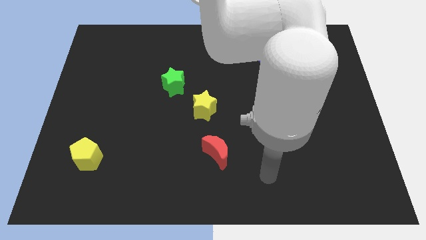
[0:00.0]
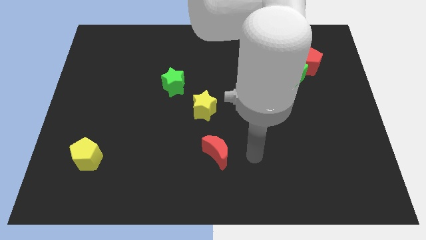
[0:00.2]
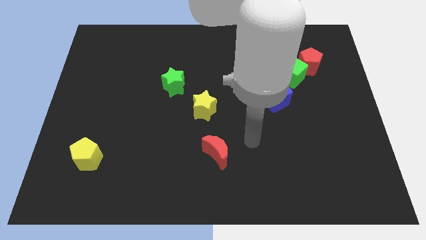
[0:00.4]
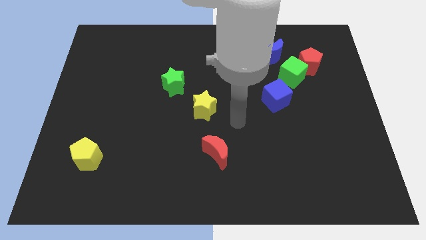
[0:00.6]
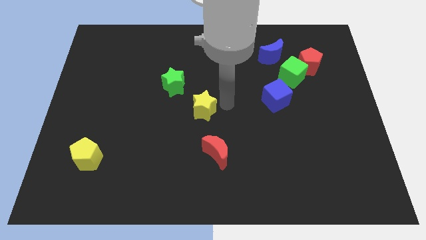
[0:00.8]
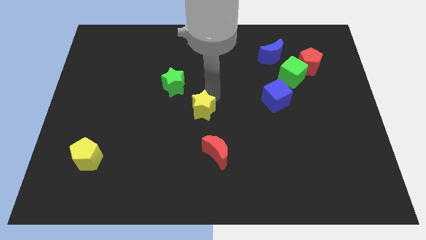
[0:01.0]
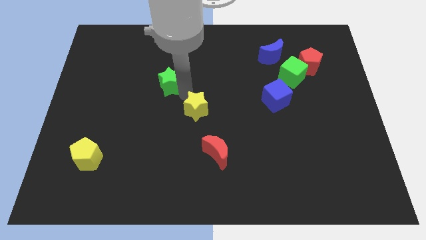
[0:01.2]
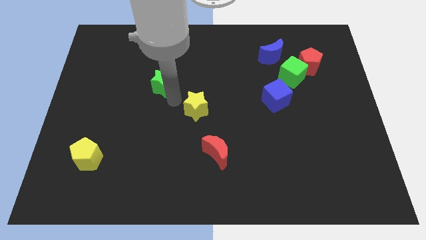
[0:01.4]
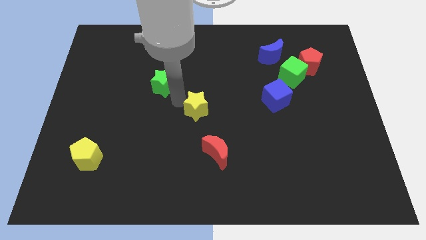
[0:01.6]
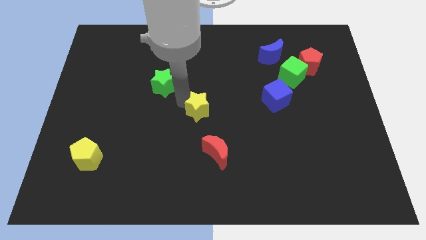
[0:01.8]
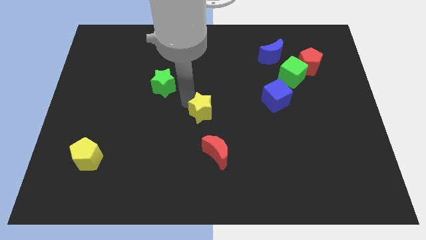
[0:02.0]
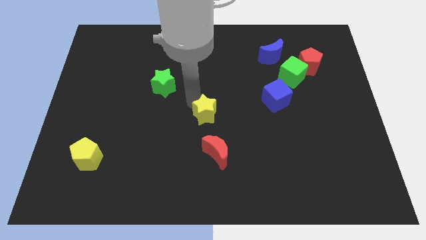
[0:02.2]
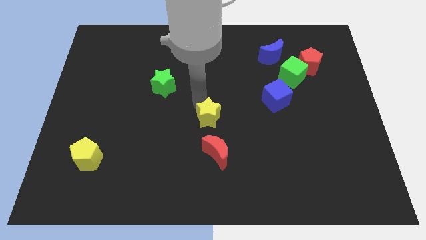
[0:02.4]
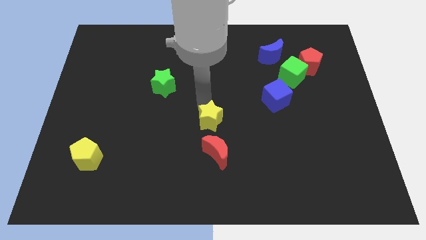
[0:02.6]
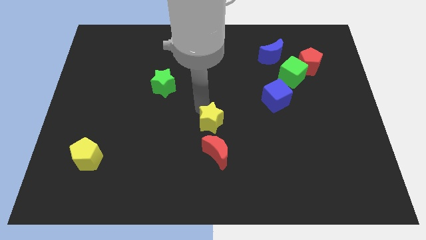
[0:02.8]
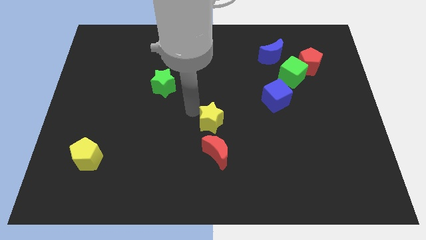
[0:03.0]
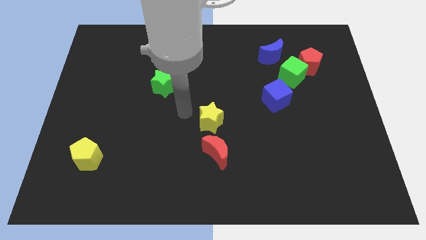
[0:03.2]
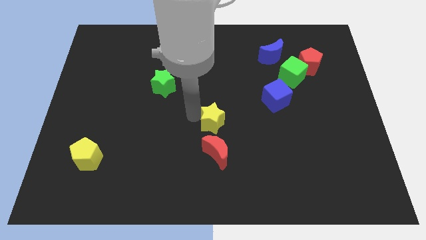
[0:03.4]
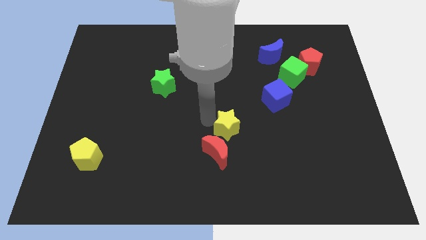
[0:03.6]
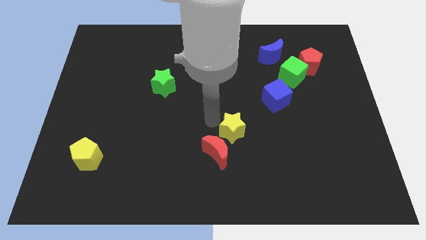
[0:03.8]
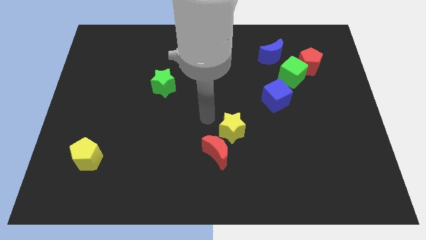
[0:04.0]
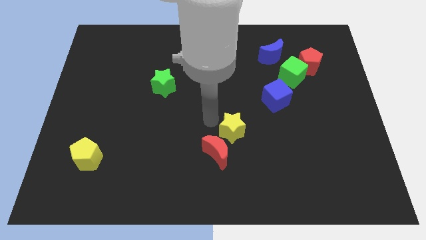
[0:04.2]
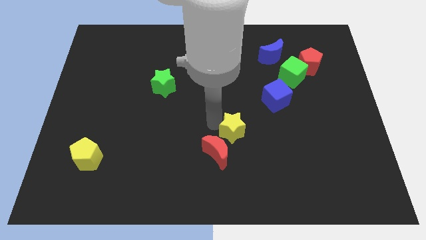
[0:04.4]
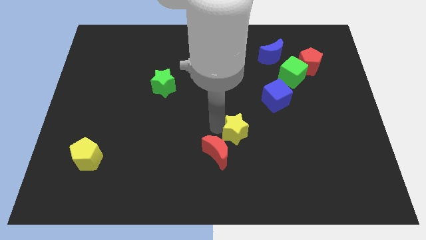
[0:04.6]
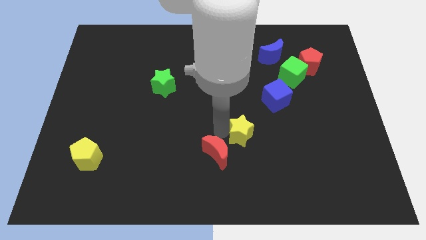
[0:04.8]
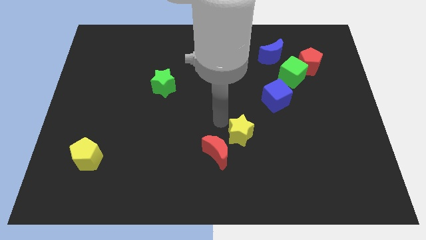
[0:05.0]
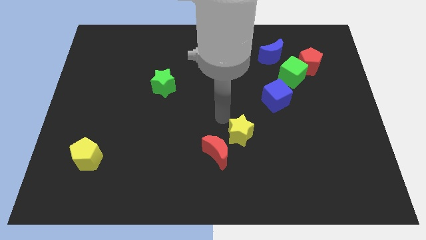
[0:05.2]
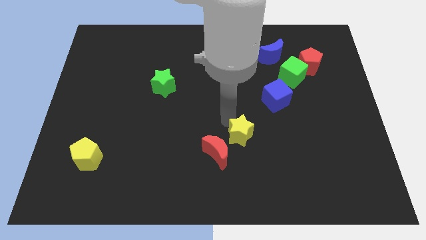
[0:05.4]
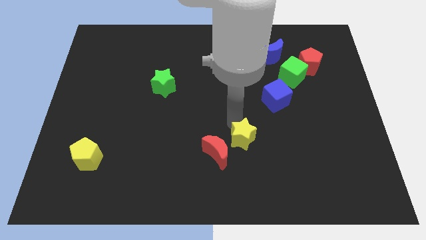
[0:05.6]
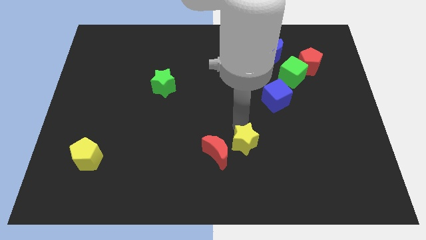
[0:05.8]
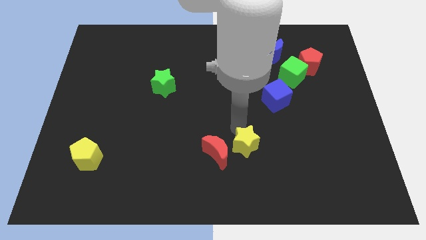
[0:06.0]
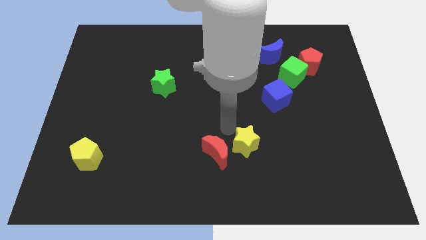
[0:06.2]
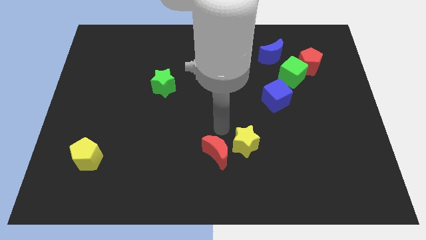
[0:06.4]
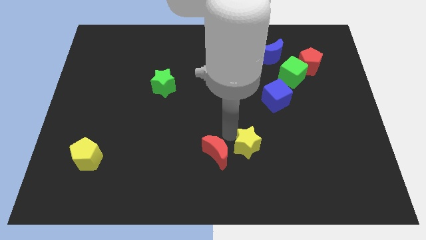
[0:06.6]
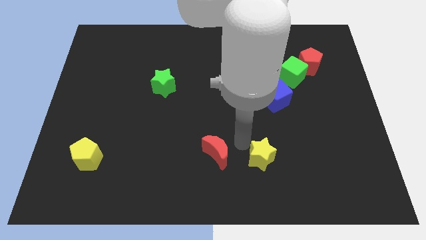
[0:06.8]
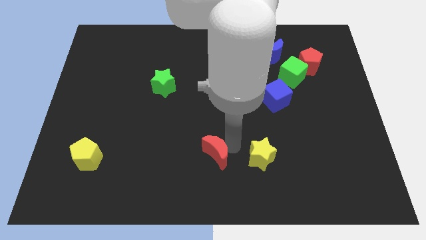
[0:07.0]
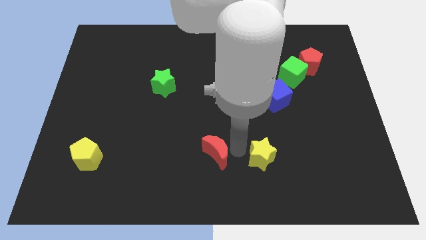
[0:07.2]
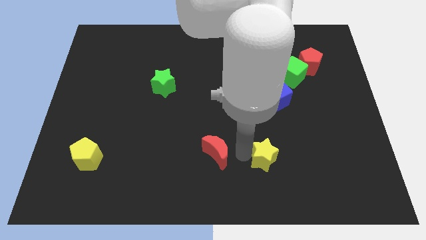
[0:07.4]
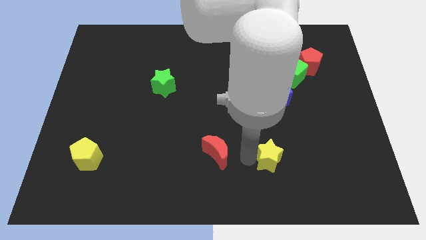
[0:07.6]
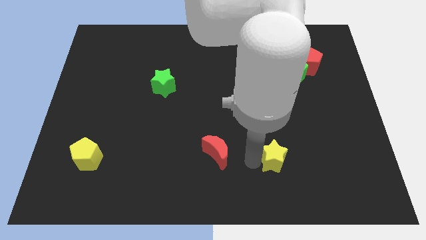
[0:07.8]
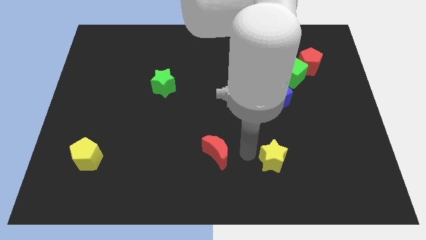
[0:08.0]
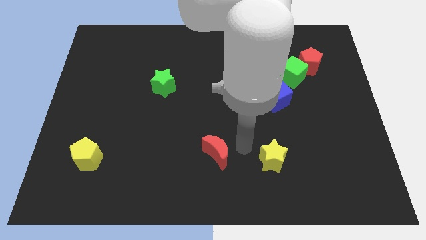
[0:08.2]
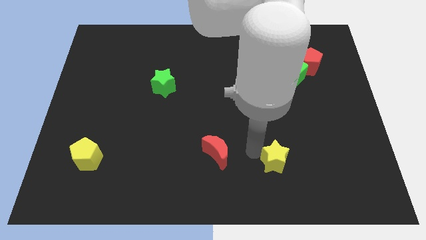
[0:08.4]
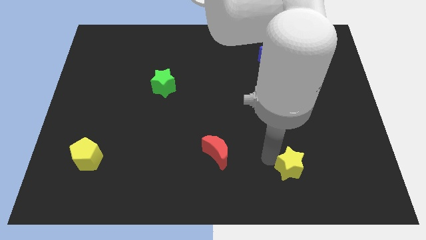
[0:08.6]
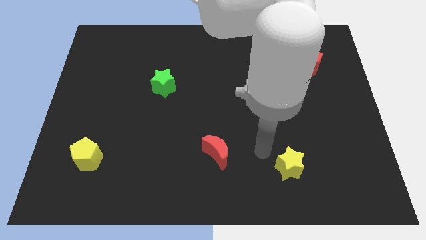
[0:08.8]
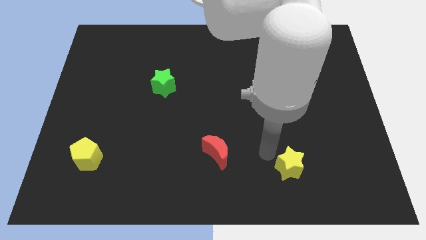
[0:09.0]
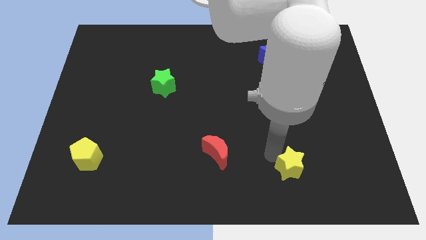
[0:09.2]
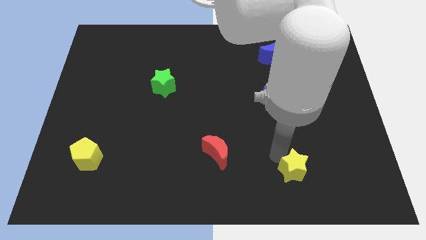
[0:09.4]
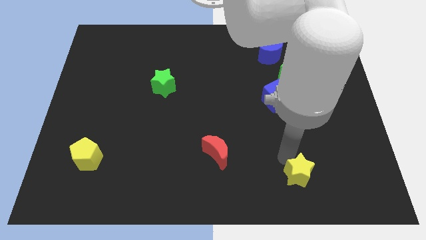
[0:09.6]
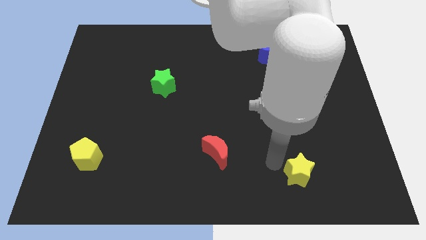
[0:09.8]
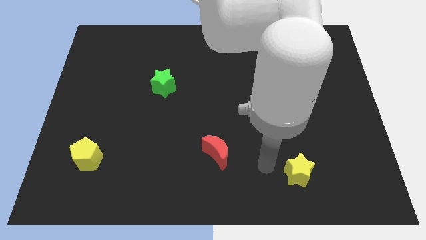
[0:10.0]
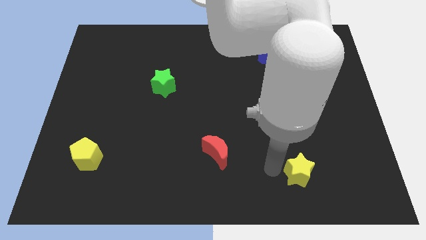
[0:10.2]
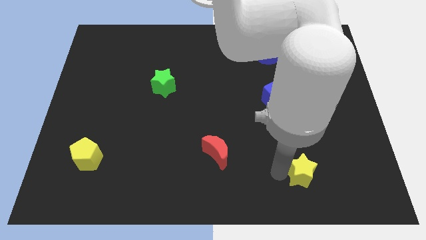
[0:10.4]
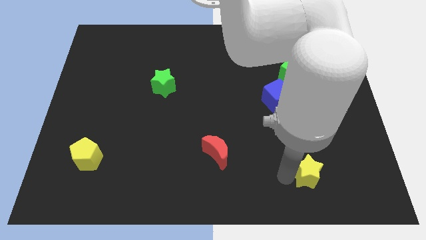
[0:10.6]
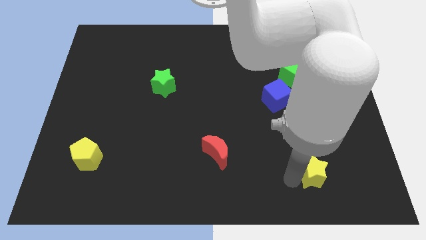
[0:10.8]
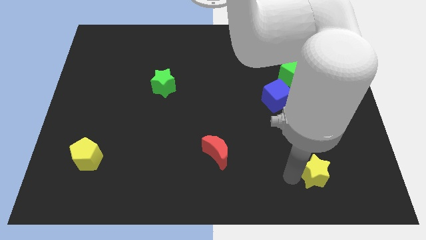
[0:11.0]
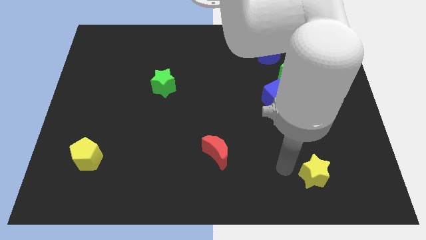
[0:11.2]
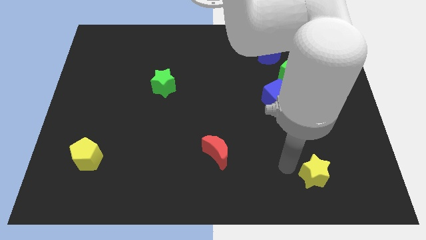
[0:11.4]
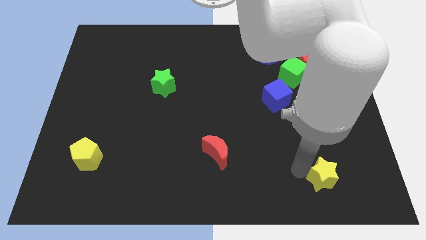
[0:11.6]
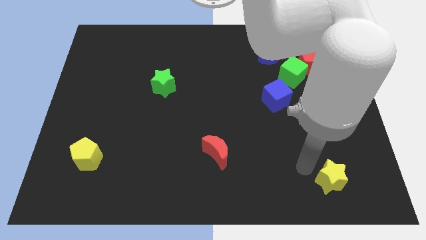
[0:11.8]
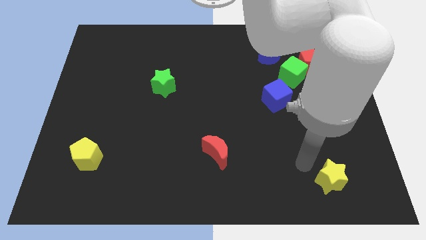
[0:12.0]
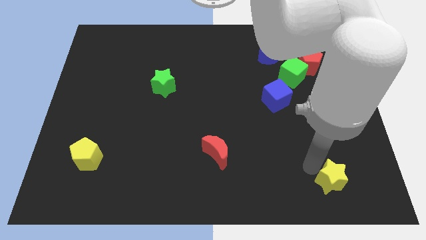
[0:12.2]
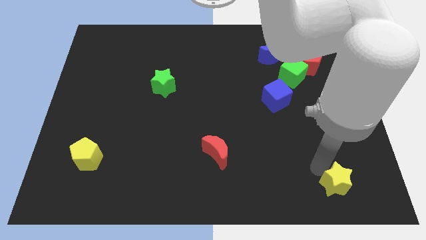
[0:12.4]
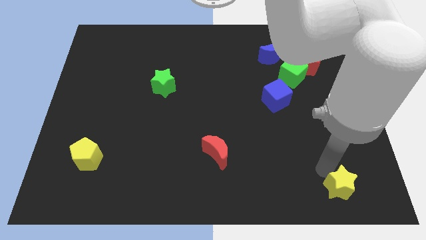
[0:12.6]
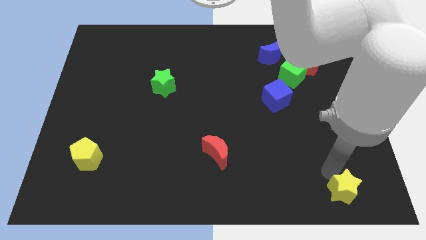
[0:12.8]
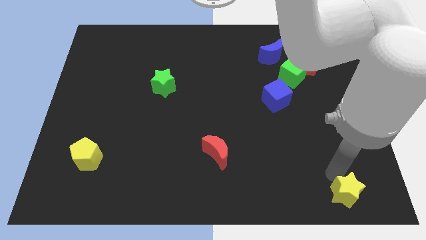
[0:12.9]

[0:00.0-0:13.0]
move the yellow star to the lower right corner
